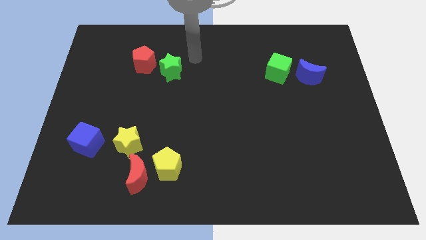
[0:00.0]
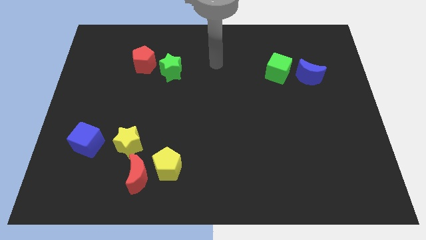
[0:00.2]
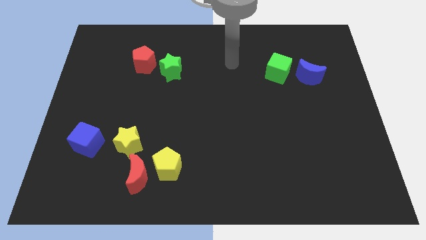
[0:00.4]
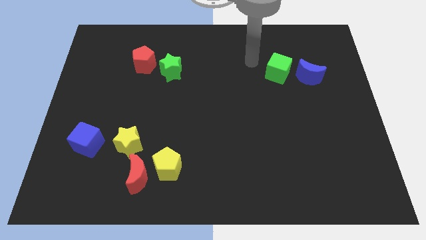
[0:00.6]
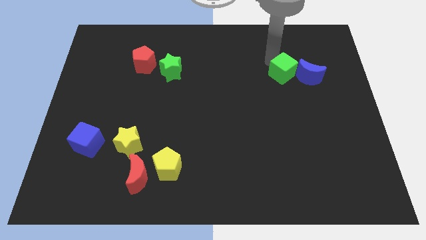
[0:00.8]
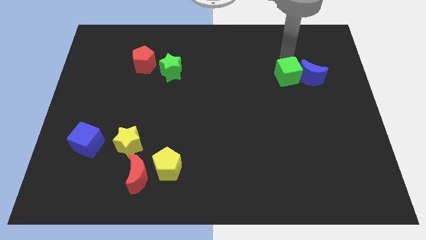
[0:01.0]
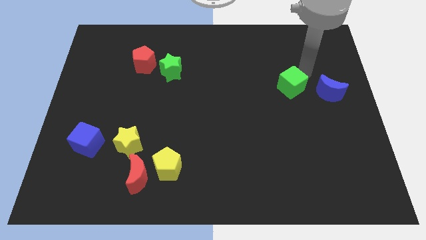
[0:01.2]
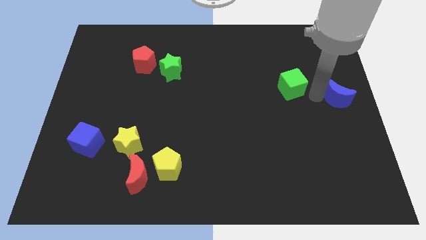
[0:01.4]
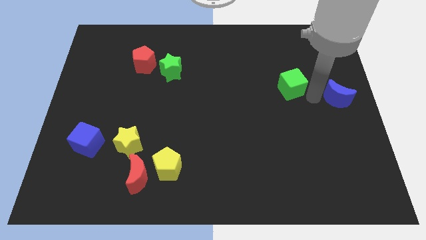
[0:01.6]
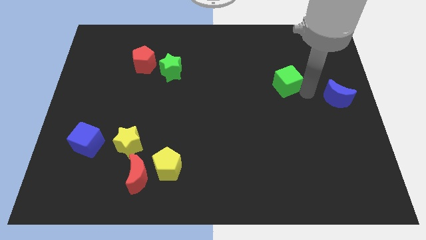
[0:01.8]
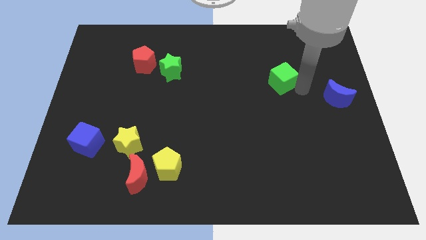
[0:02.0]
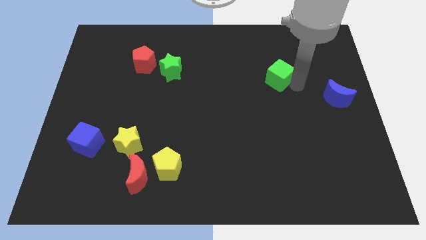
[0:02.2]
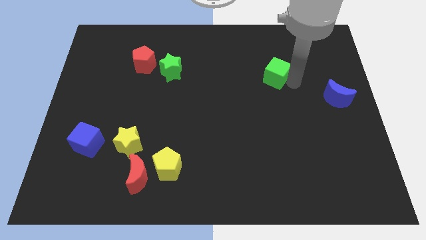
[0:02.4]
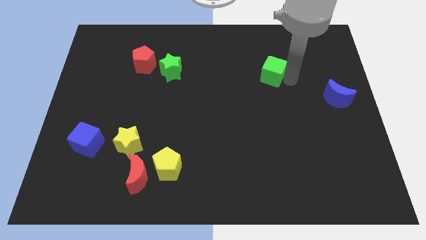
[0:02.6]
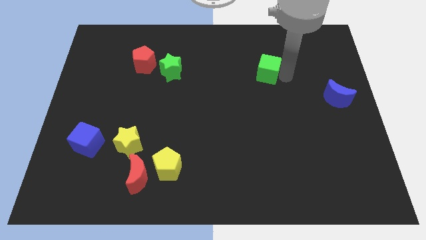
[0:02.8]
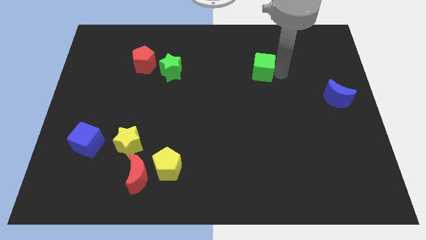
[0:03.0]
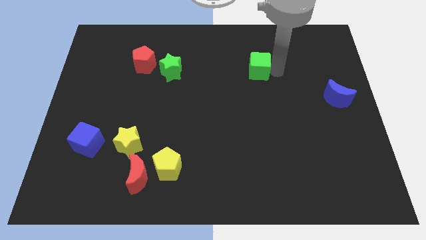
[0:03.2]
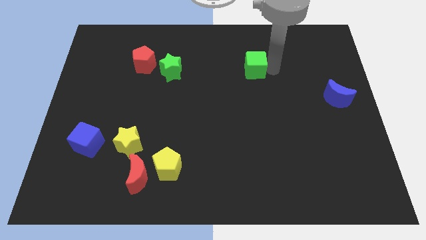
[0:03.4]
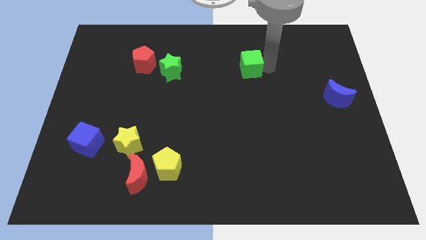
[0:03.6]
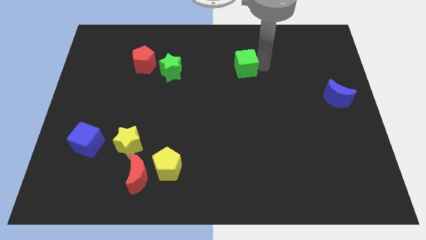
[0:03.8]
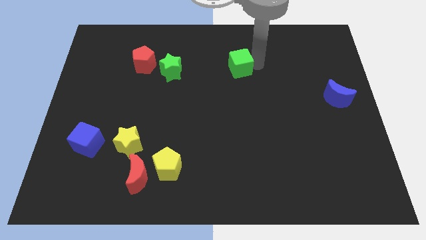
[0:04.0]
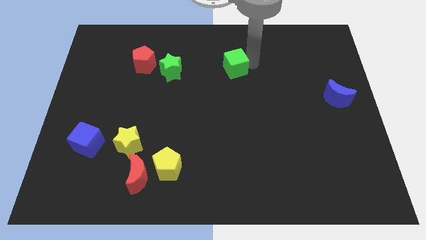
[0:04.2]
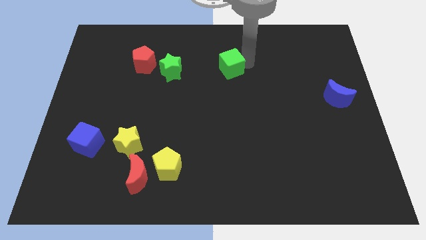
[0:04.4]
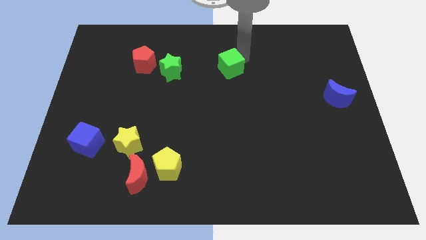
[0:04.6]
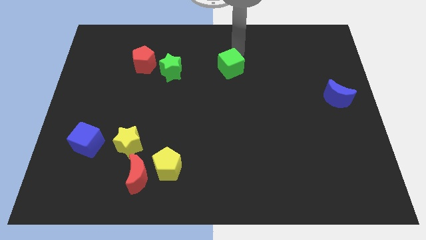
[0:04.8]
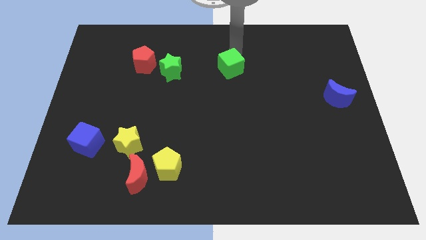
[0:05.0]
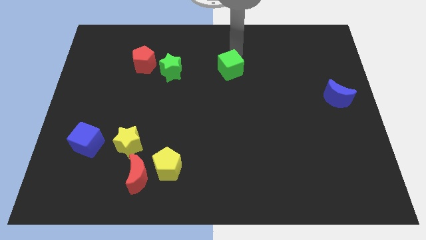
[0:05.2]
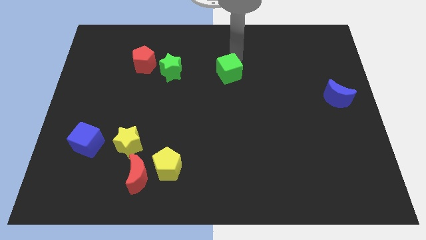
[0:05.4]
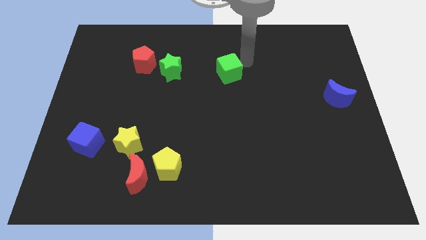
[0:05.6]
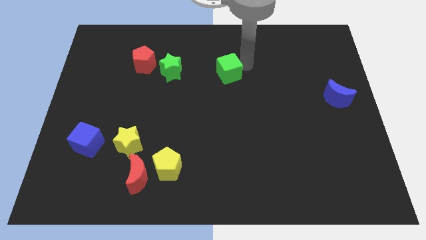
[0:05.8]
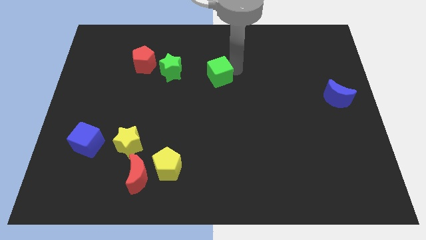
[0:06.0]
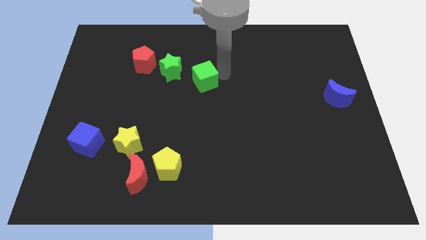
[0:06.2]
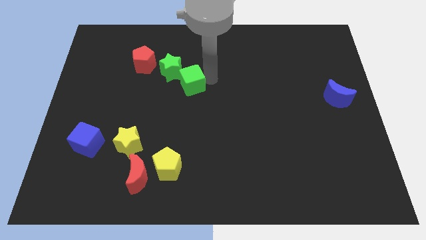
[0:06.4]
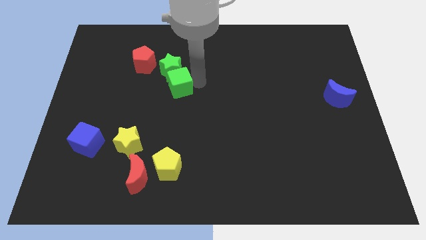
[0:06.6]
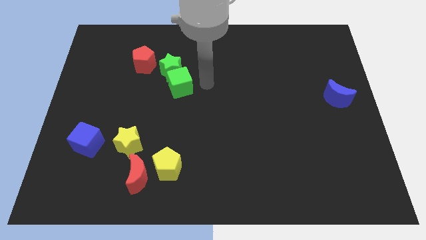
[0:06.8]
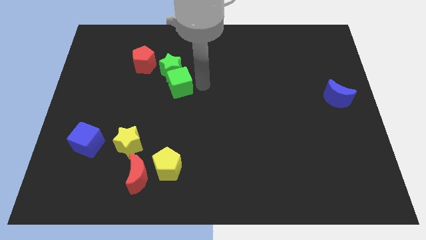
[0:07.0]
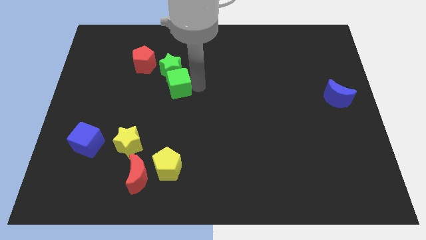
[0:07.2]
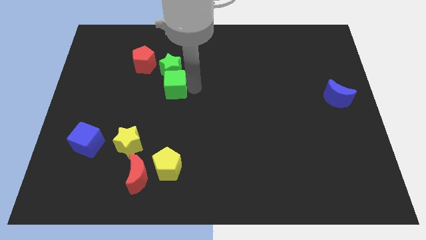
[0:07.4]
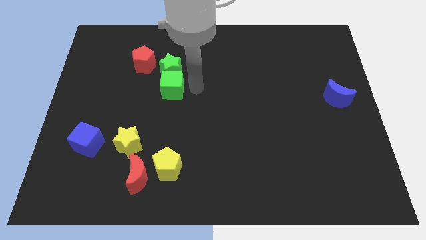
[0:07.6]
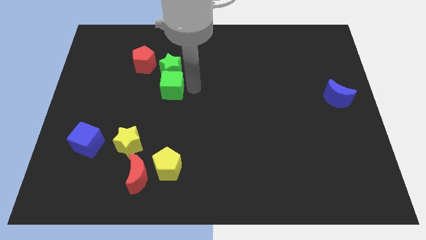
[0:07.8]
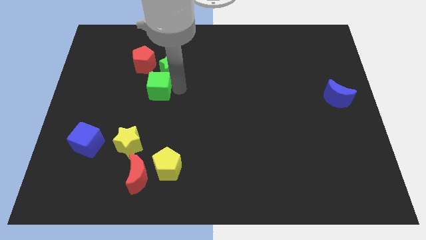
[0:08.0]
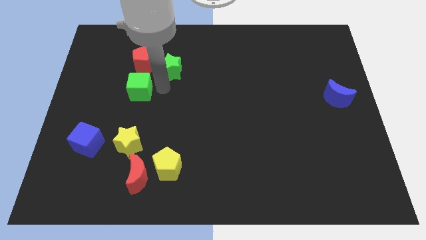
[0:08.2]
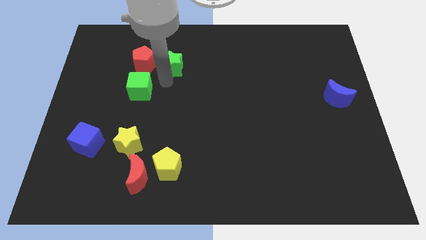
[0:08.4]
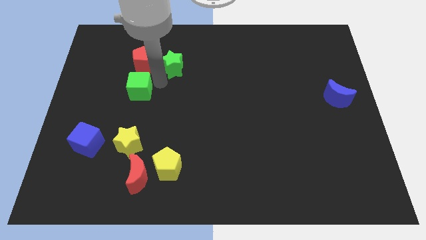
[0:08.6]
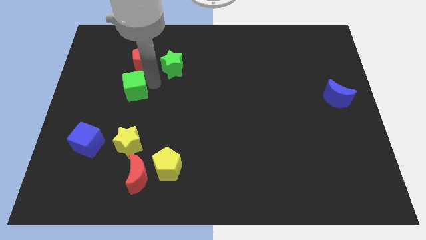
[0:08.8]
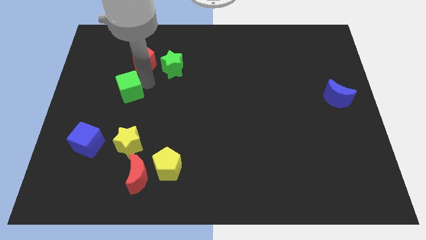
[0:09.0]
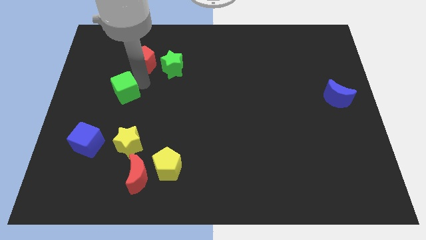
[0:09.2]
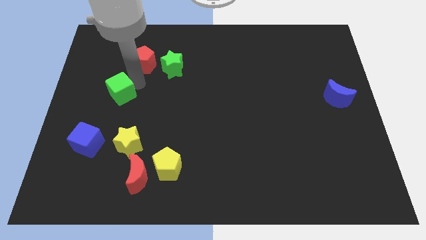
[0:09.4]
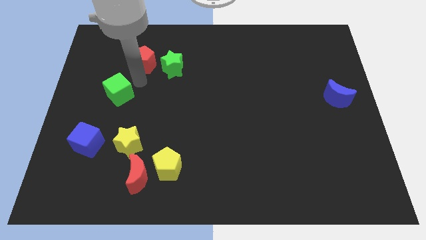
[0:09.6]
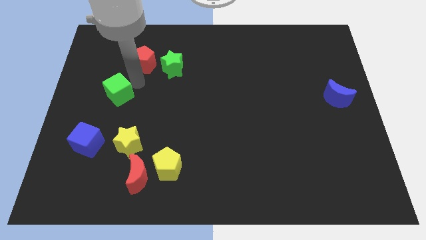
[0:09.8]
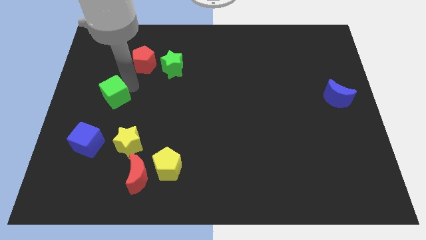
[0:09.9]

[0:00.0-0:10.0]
put the green cube to the top side of the blue cube

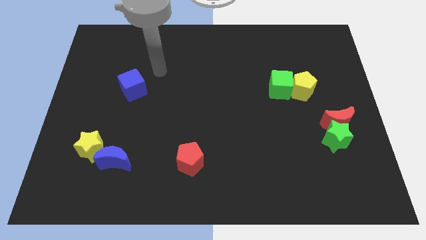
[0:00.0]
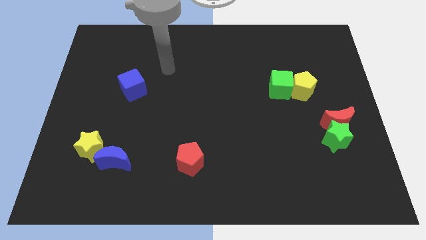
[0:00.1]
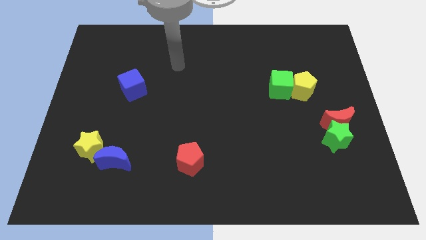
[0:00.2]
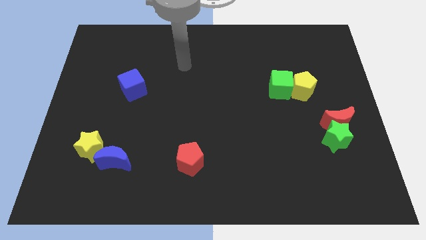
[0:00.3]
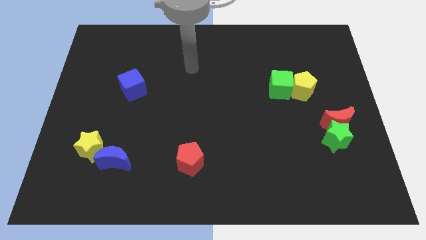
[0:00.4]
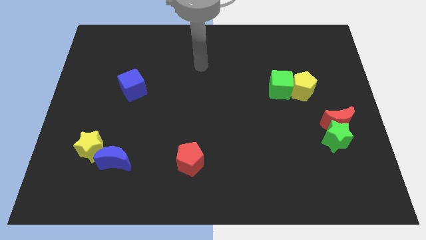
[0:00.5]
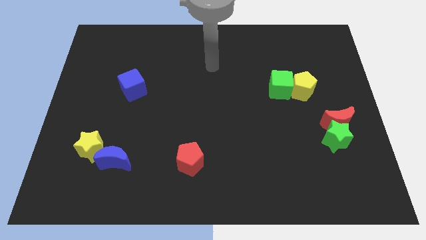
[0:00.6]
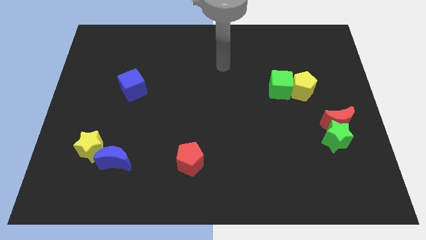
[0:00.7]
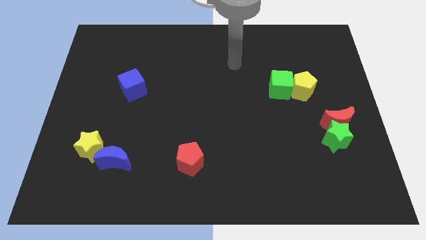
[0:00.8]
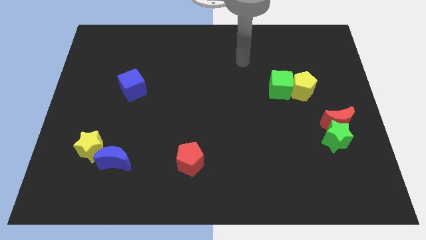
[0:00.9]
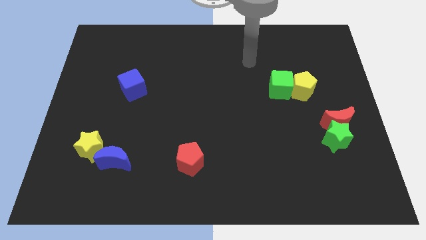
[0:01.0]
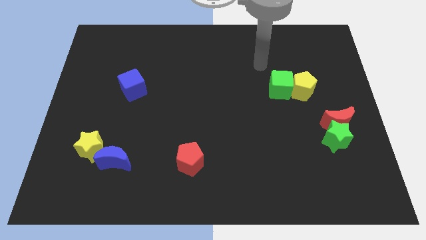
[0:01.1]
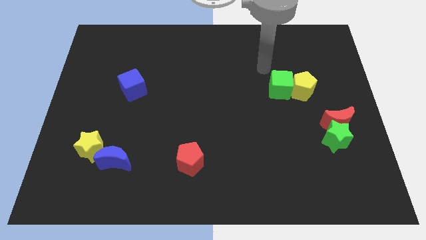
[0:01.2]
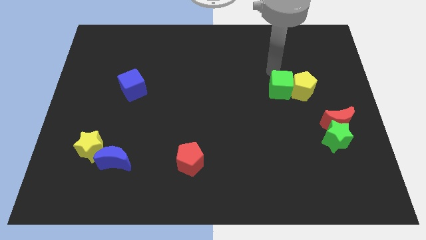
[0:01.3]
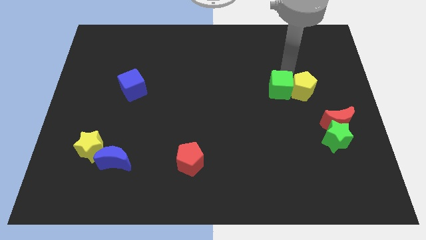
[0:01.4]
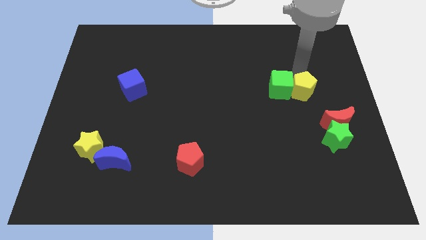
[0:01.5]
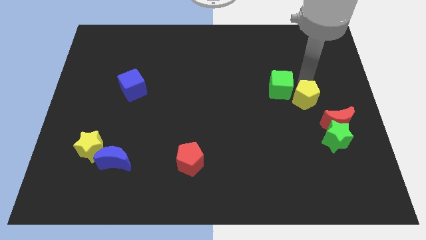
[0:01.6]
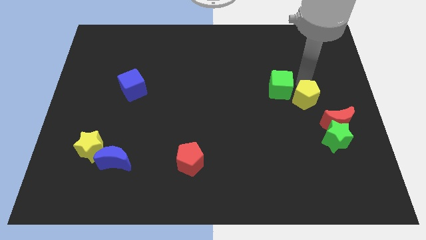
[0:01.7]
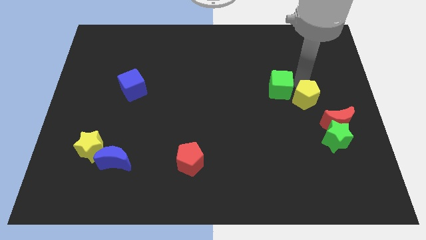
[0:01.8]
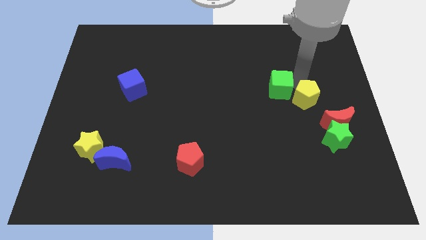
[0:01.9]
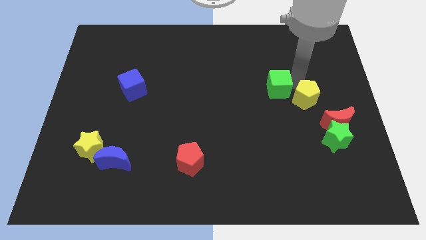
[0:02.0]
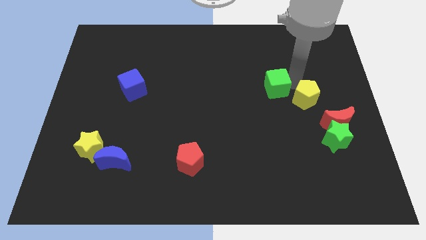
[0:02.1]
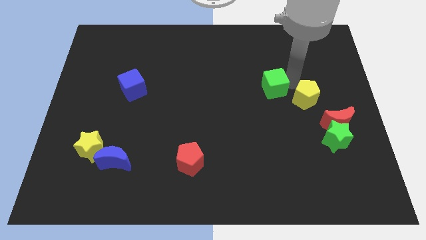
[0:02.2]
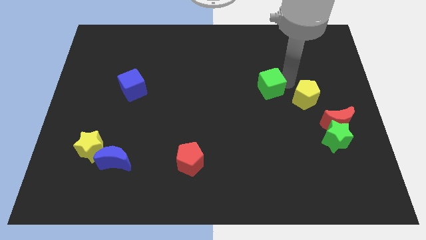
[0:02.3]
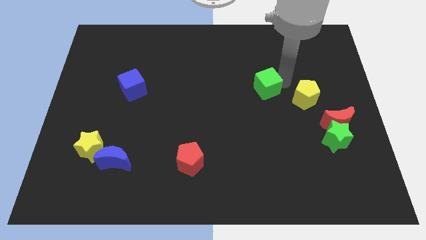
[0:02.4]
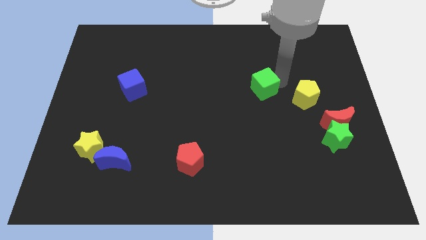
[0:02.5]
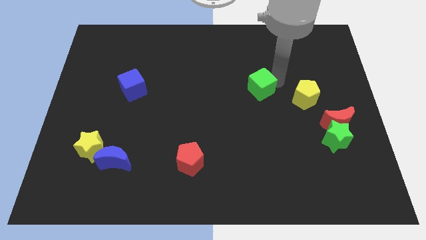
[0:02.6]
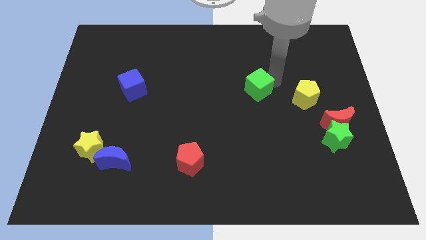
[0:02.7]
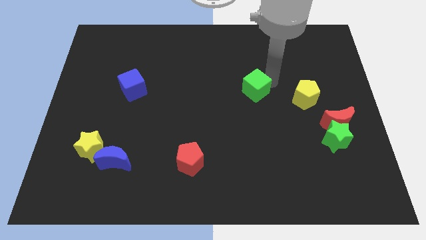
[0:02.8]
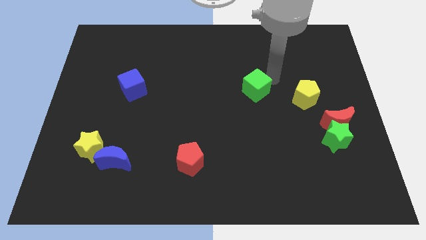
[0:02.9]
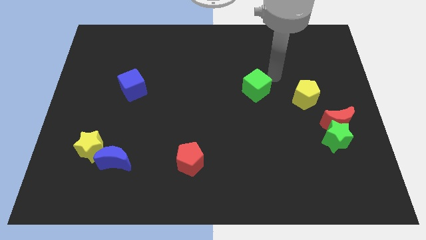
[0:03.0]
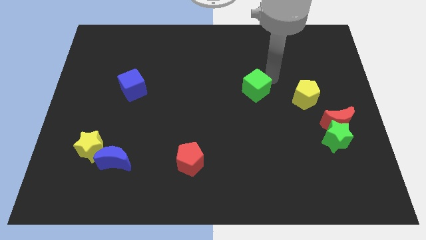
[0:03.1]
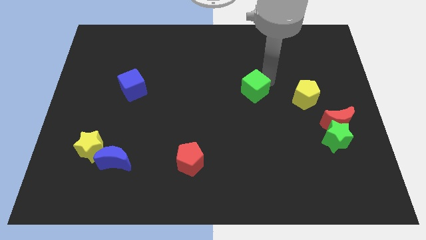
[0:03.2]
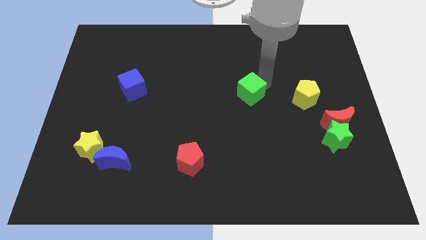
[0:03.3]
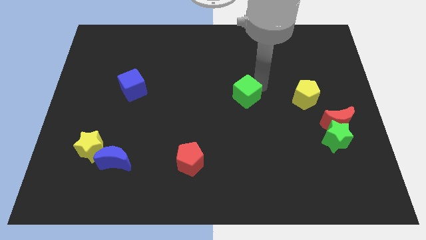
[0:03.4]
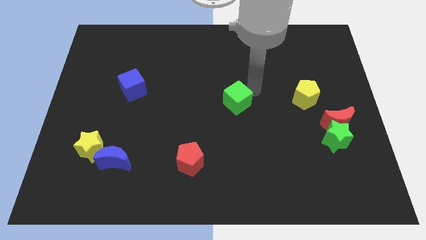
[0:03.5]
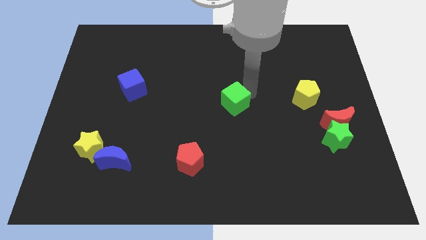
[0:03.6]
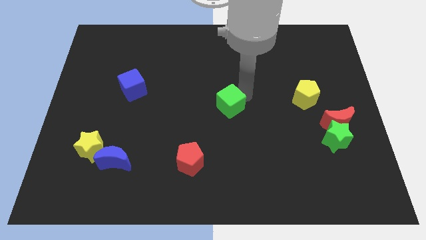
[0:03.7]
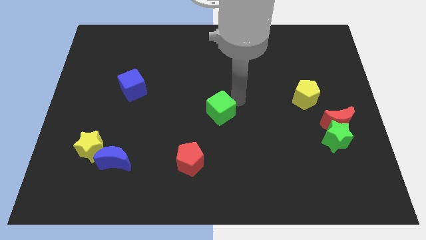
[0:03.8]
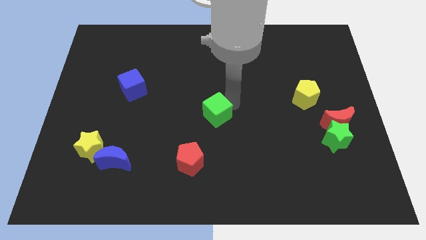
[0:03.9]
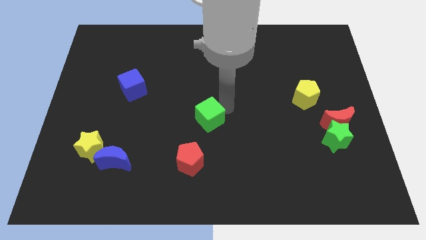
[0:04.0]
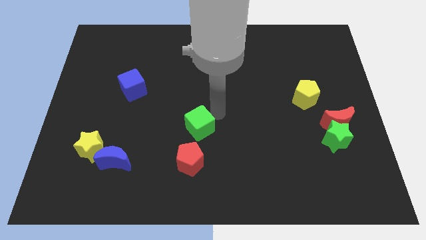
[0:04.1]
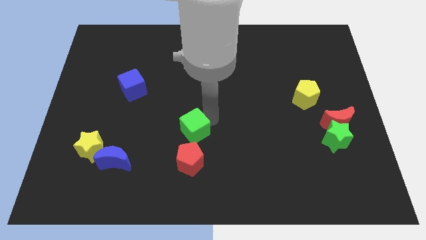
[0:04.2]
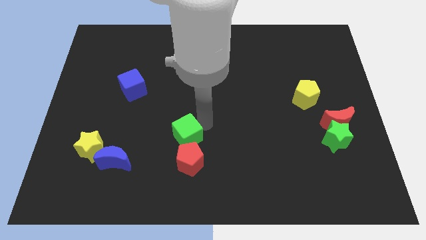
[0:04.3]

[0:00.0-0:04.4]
push the green cube to the top left of the red pentagon
